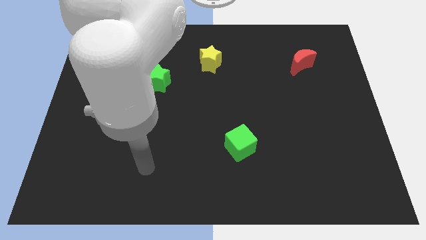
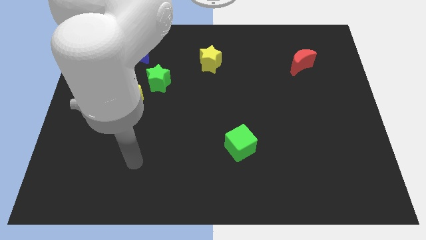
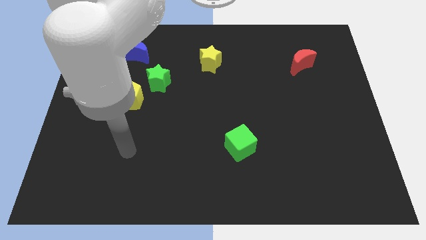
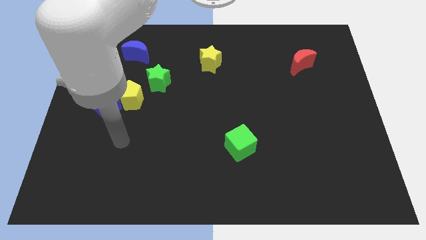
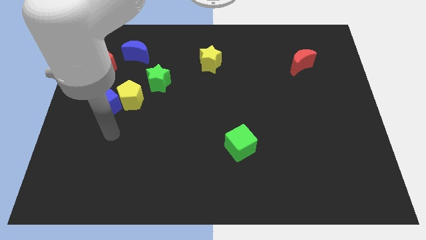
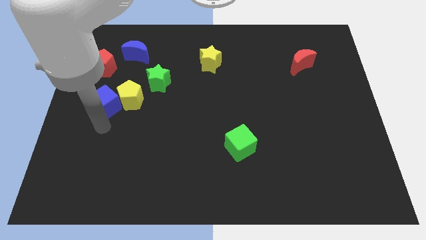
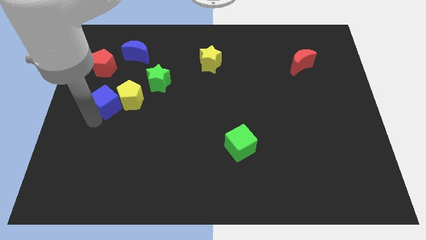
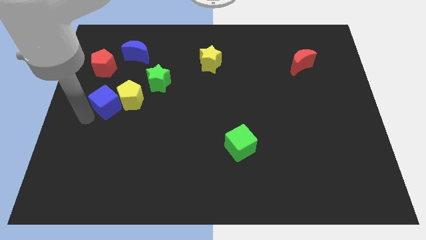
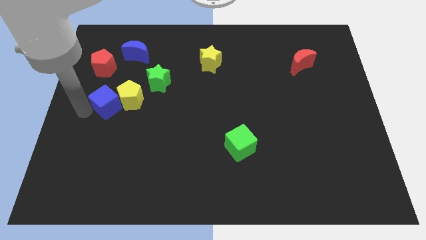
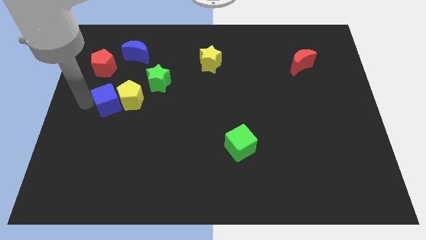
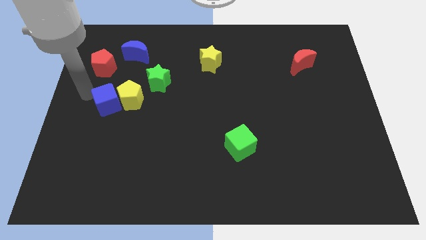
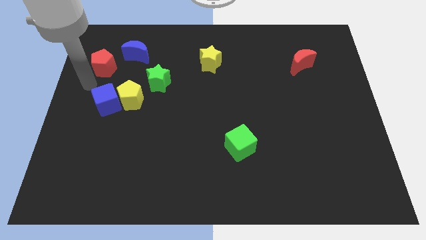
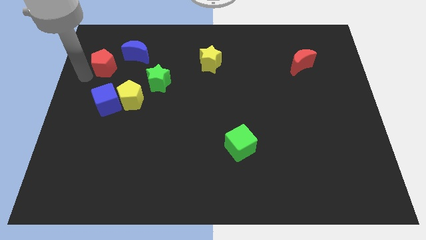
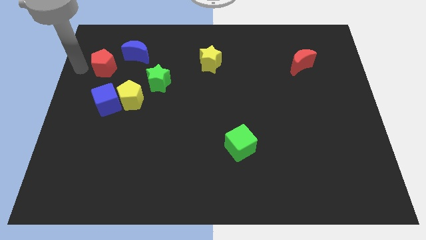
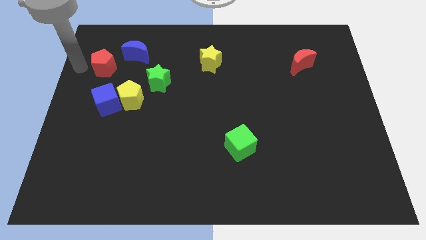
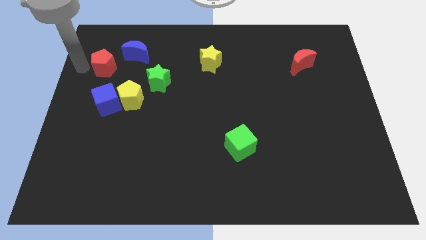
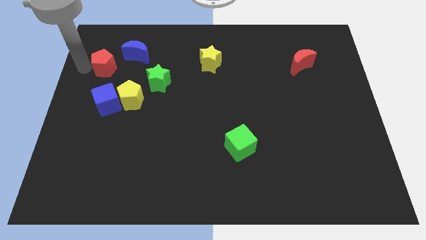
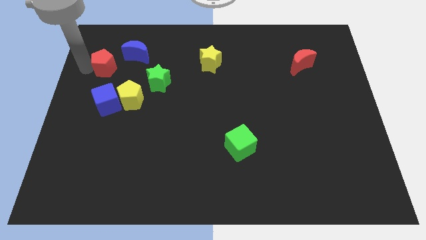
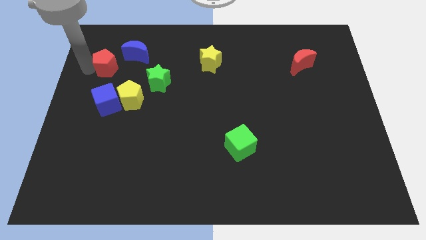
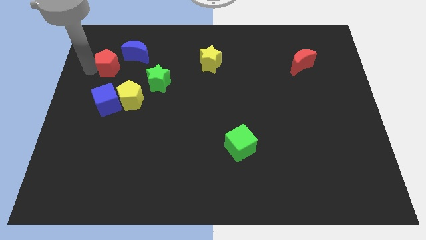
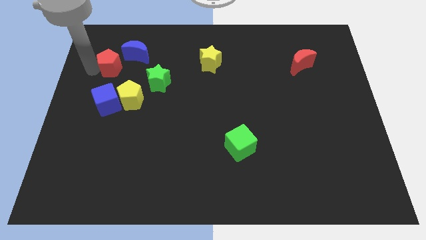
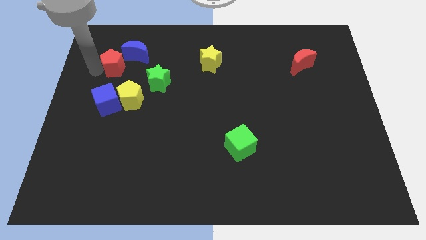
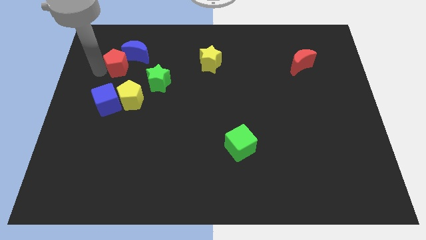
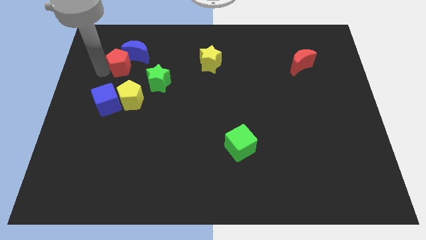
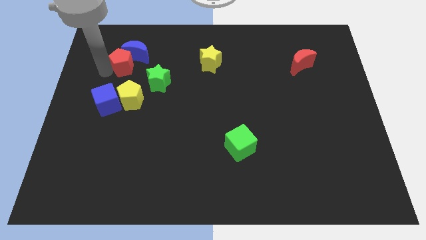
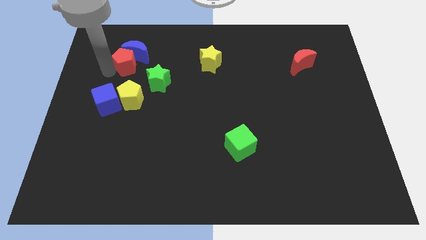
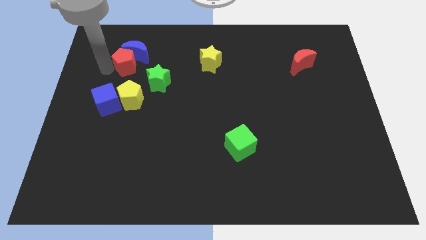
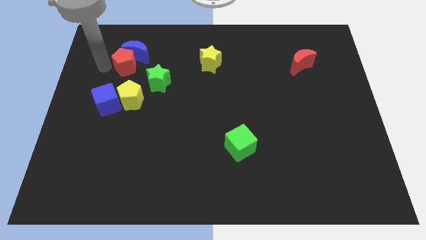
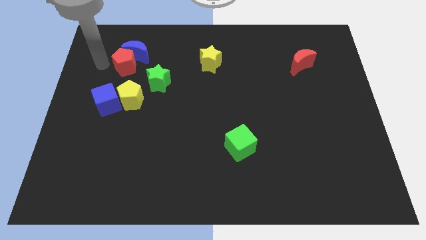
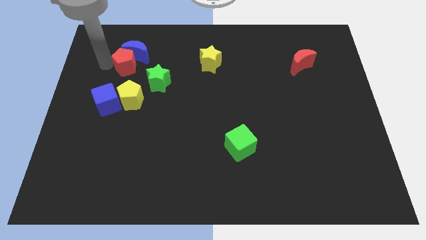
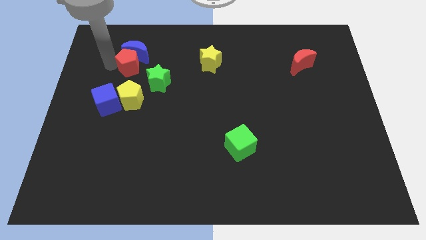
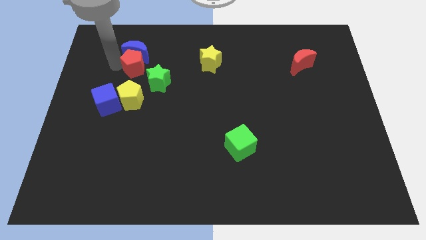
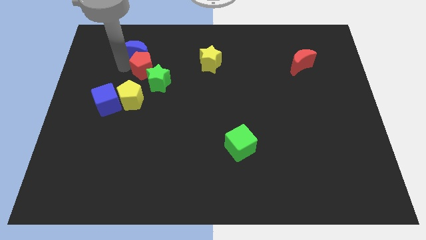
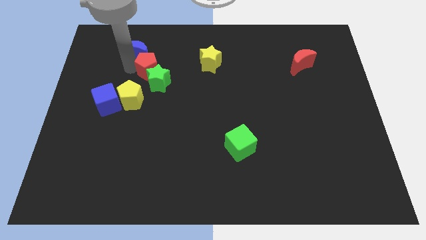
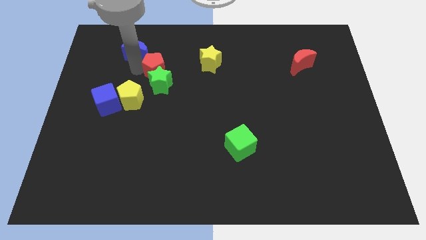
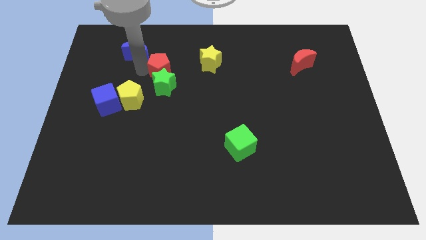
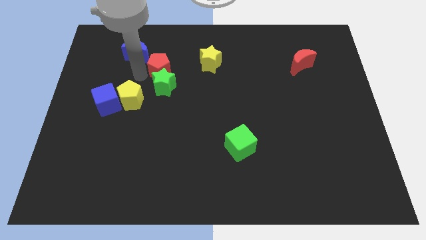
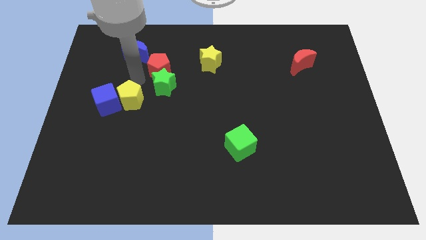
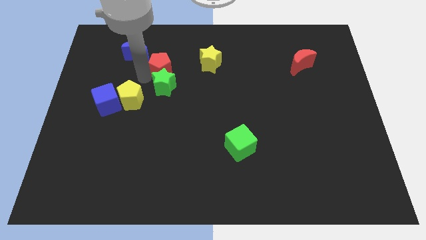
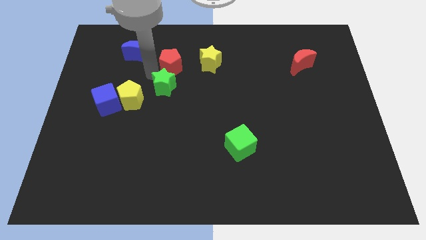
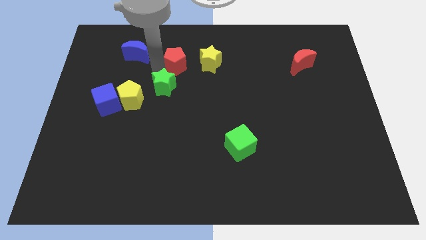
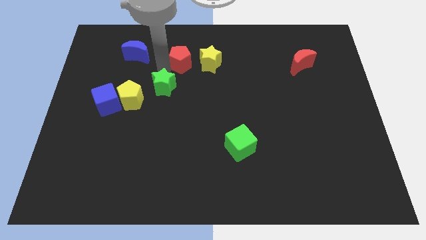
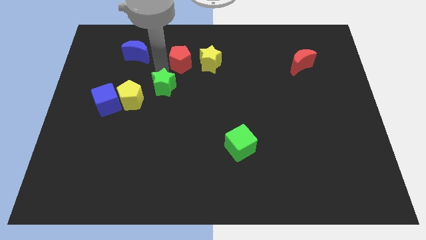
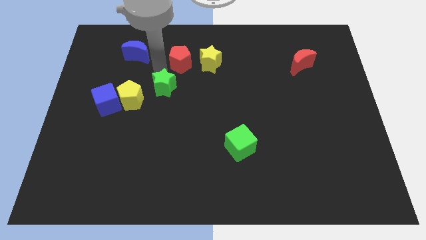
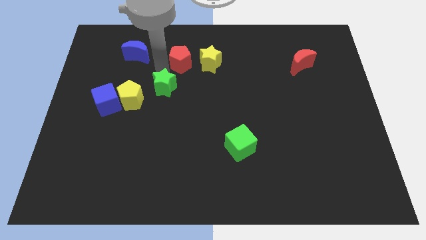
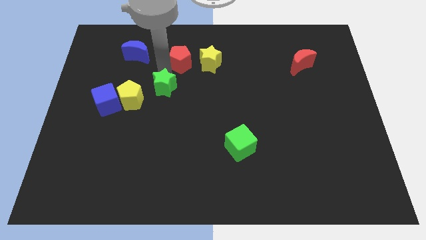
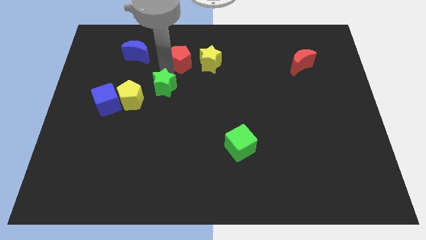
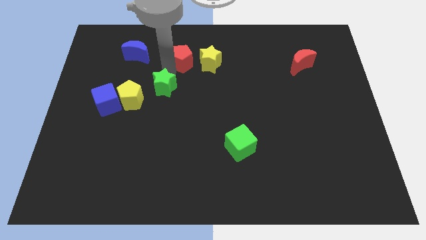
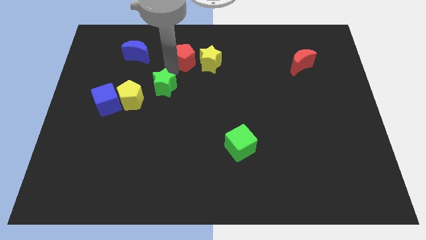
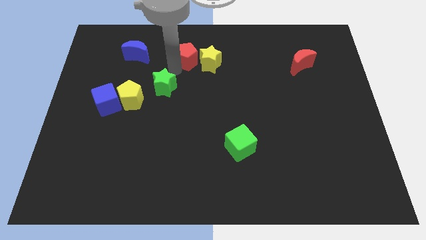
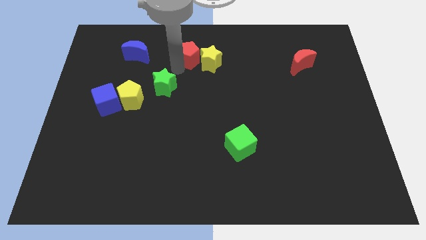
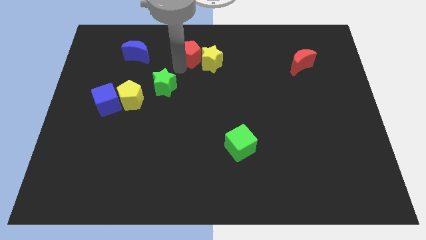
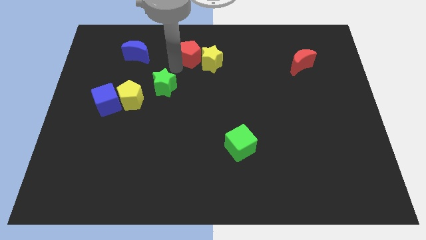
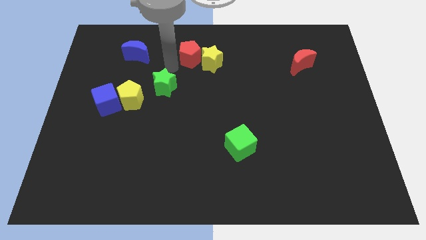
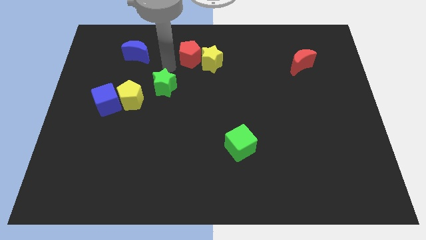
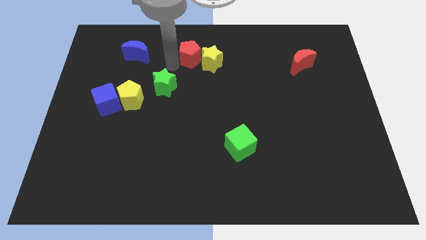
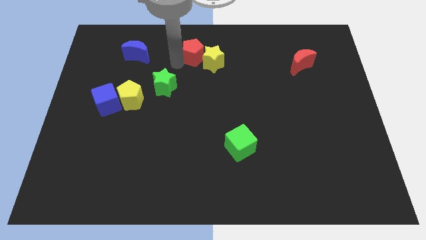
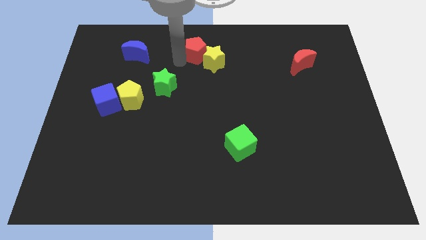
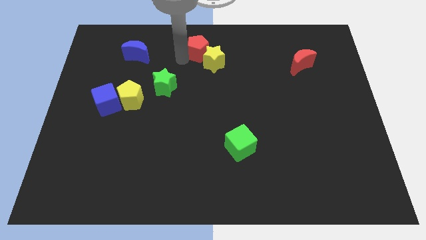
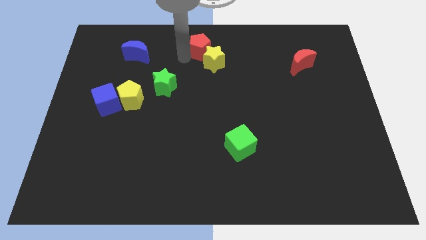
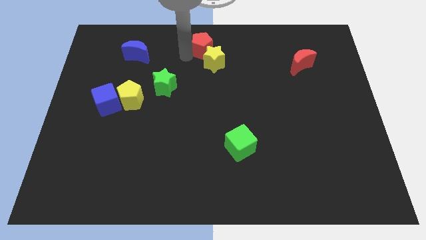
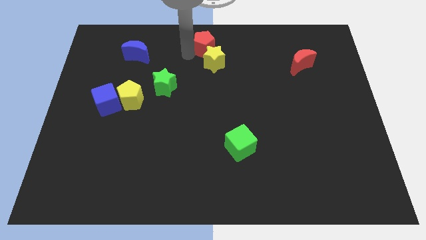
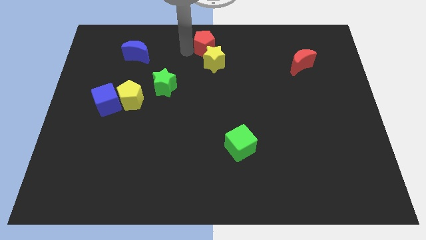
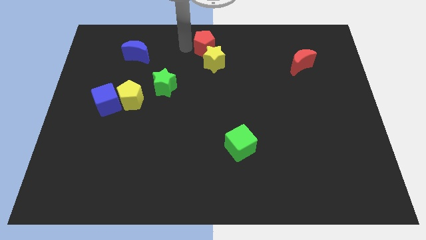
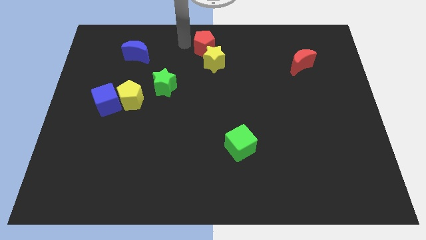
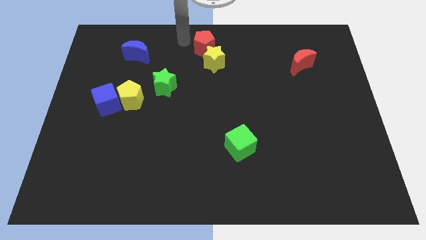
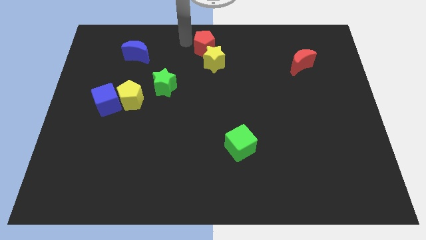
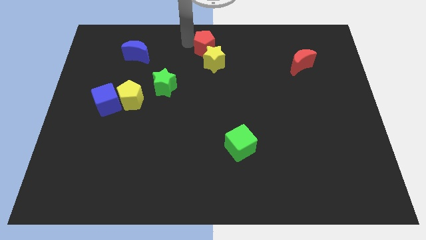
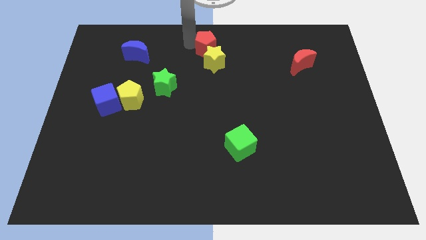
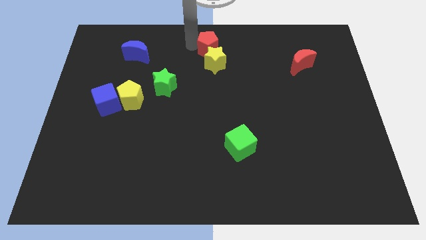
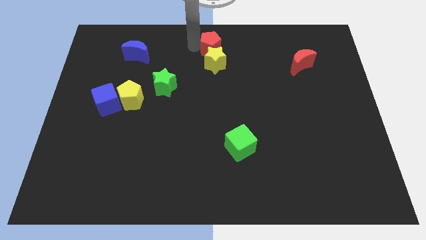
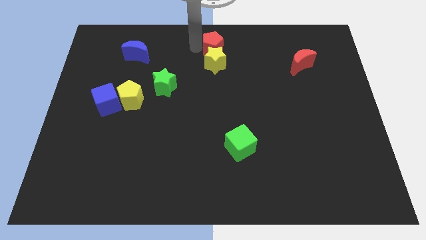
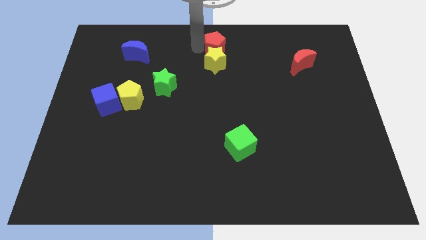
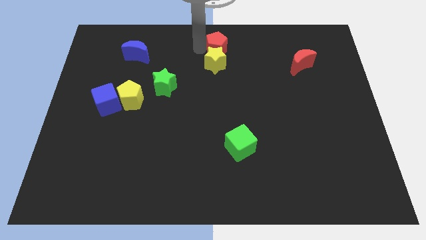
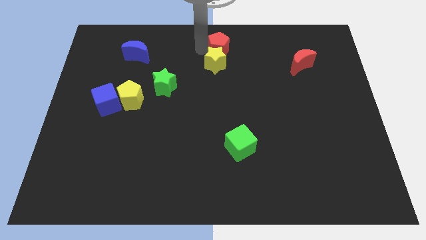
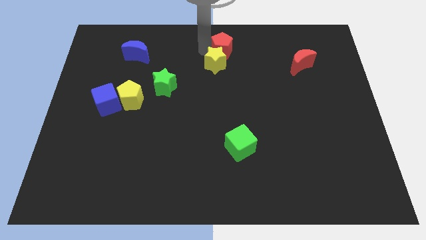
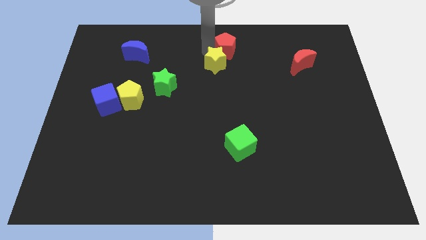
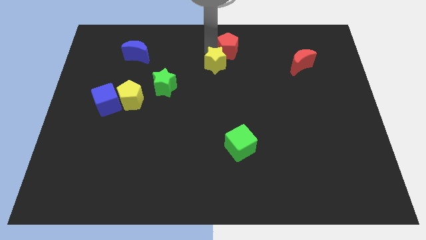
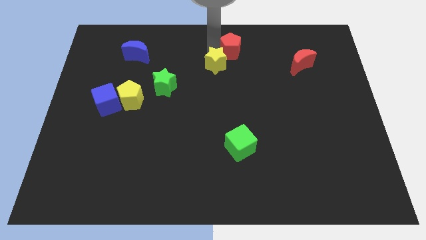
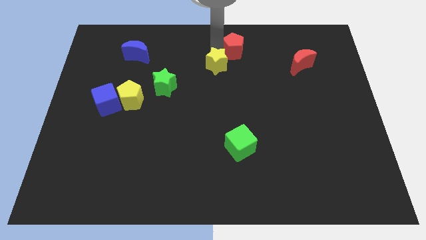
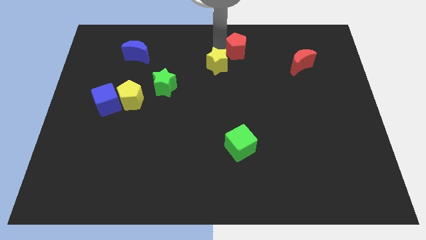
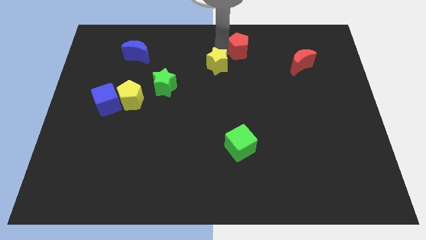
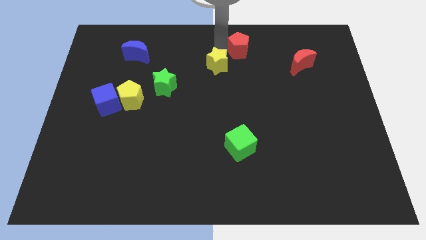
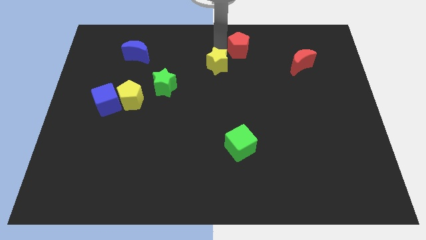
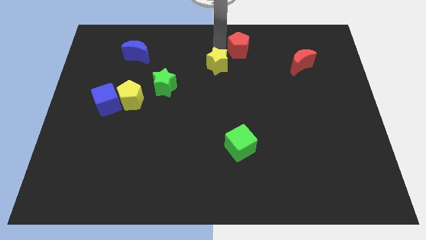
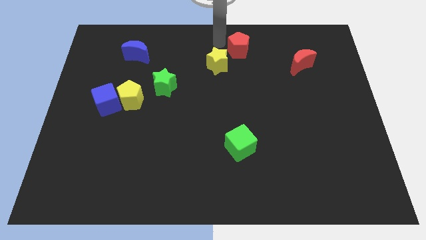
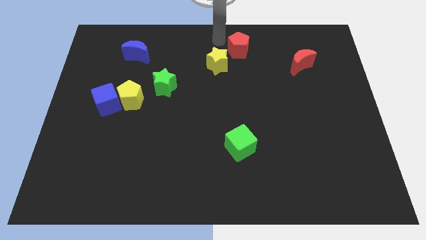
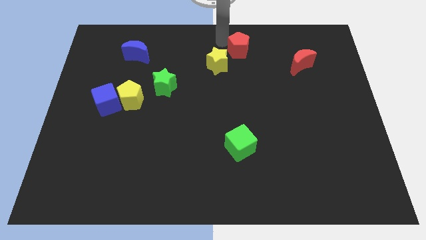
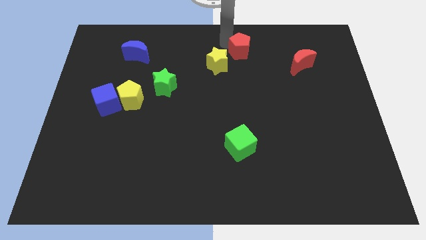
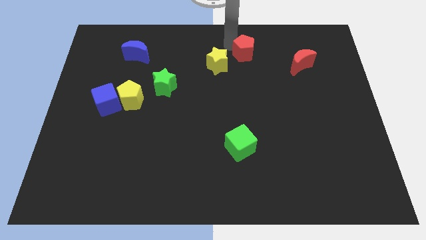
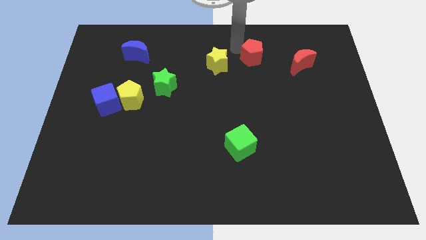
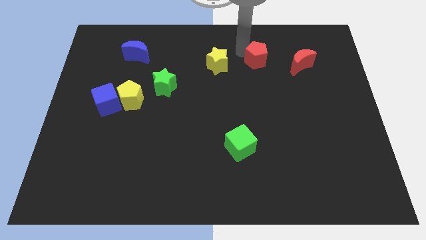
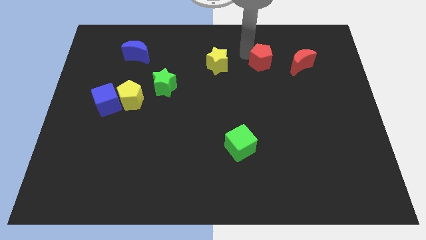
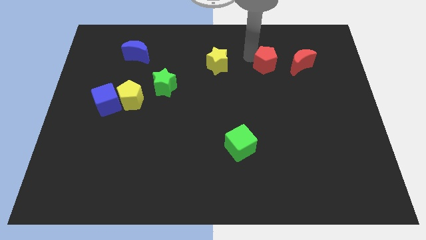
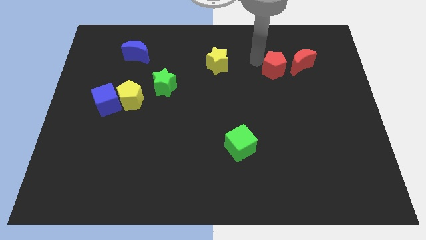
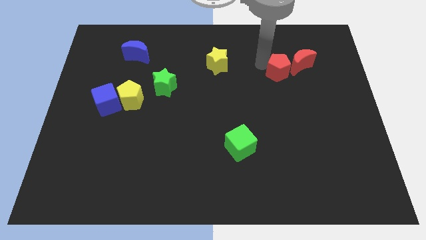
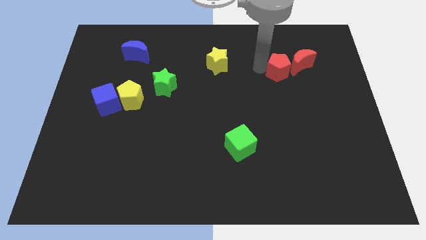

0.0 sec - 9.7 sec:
put the red pentagon next to the red moon
